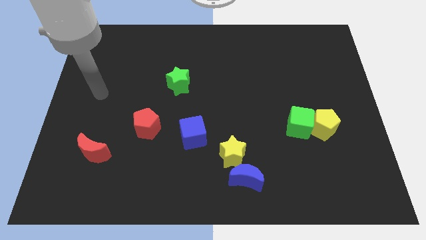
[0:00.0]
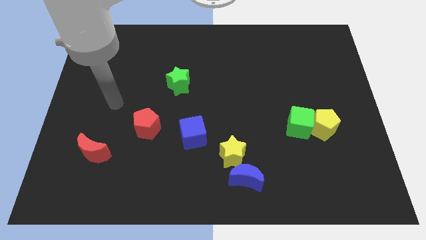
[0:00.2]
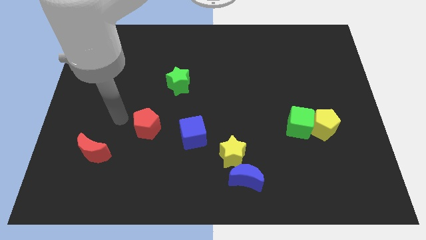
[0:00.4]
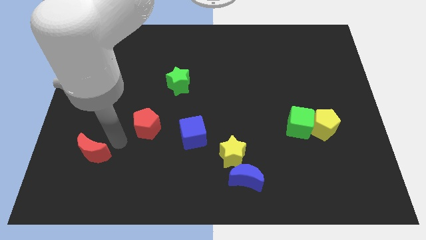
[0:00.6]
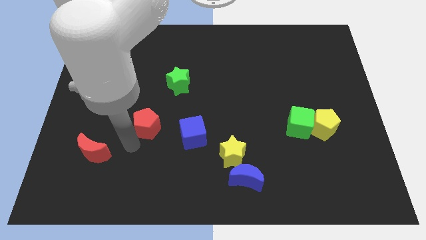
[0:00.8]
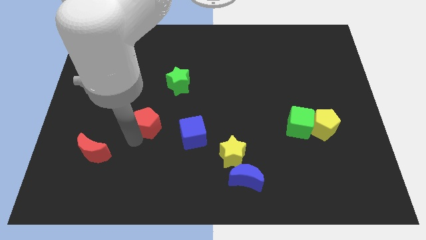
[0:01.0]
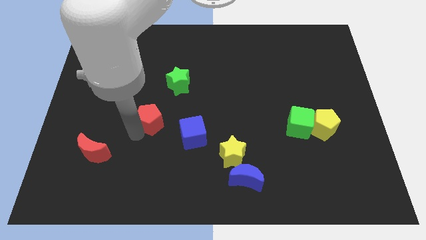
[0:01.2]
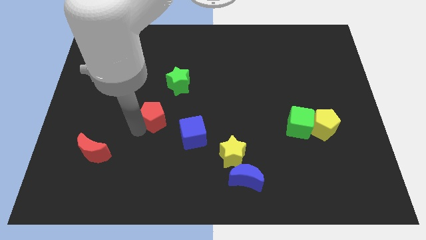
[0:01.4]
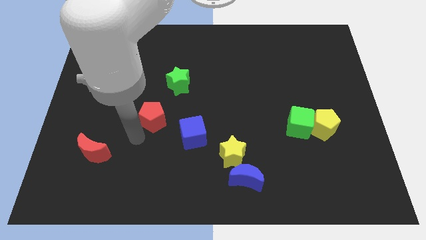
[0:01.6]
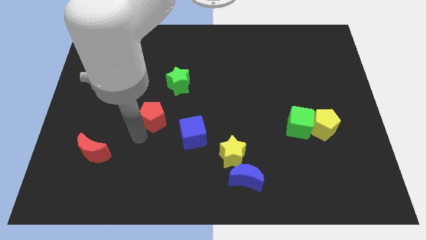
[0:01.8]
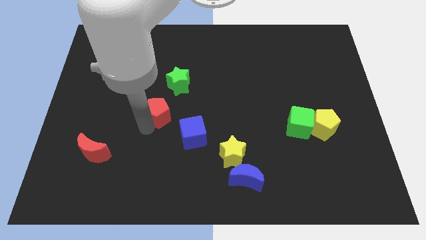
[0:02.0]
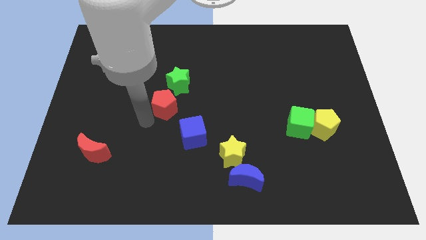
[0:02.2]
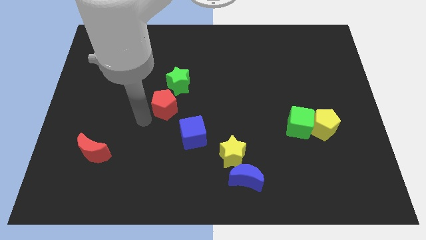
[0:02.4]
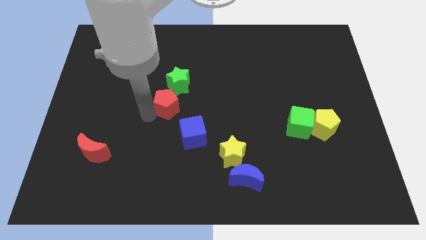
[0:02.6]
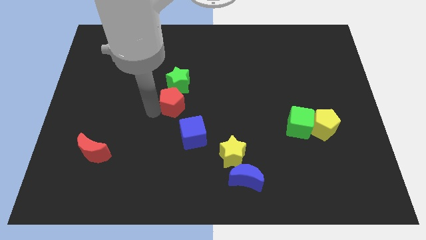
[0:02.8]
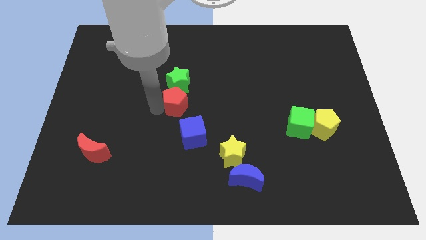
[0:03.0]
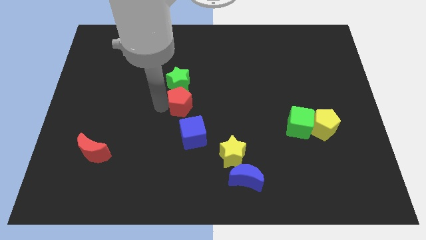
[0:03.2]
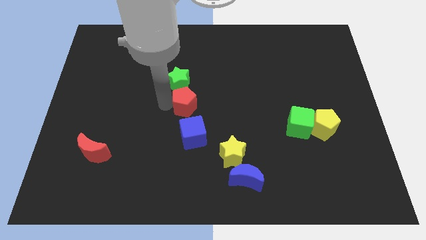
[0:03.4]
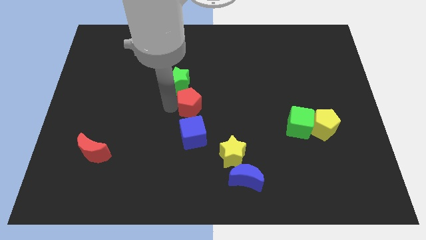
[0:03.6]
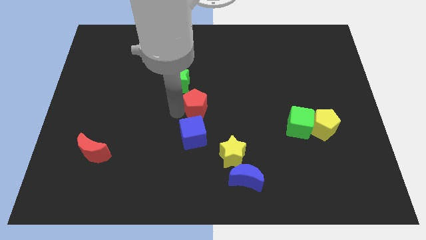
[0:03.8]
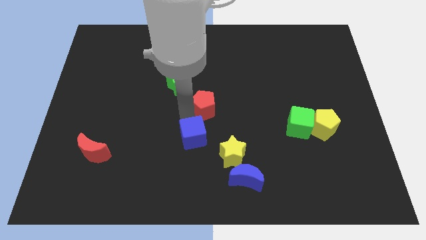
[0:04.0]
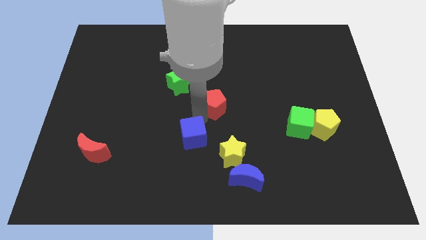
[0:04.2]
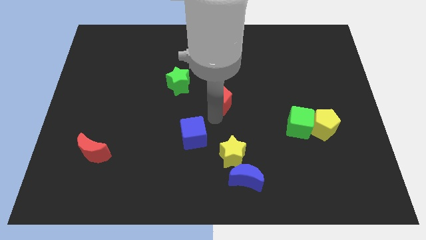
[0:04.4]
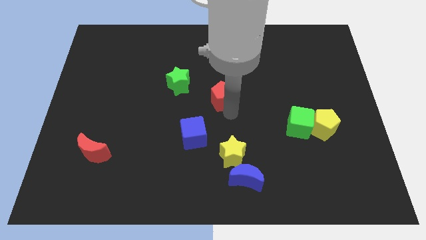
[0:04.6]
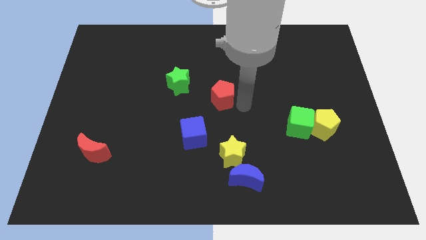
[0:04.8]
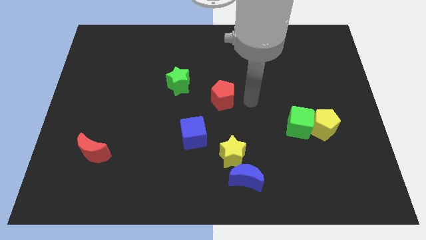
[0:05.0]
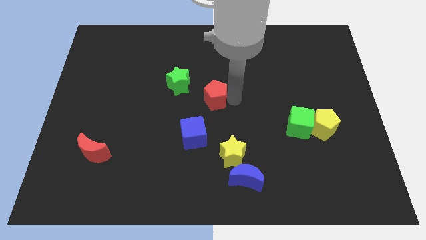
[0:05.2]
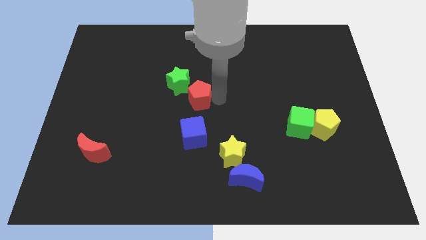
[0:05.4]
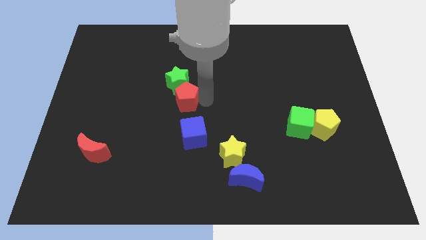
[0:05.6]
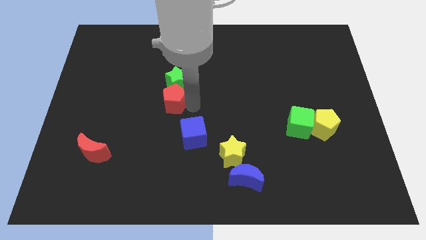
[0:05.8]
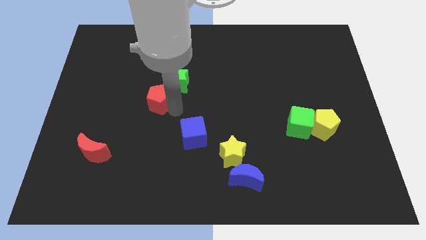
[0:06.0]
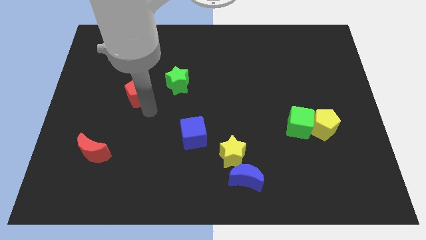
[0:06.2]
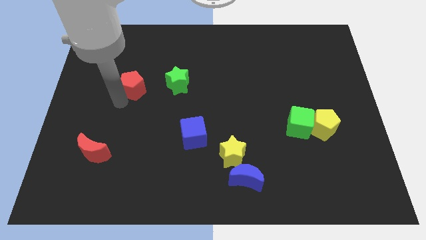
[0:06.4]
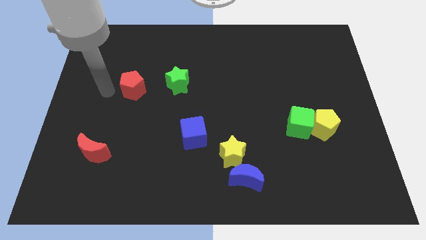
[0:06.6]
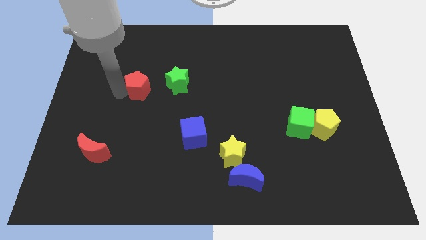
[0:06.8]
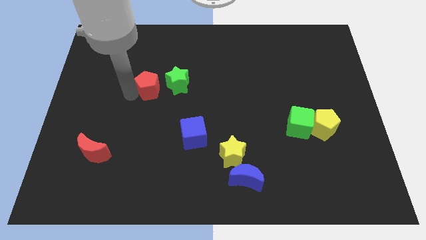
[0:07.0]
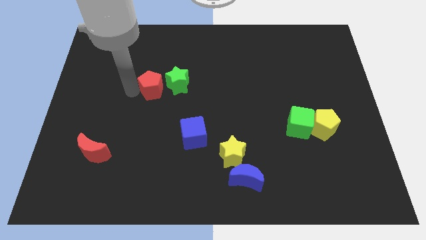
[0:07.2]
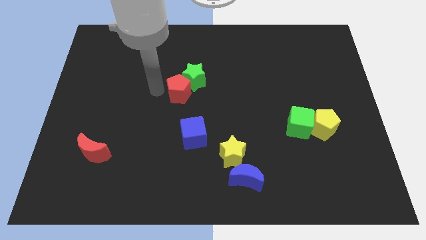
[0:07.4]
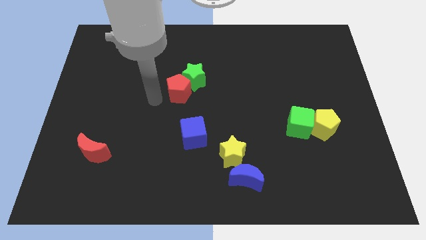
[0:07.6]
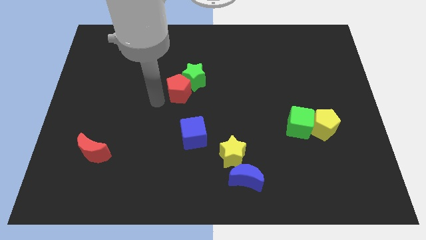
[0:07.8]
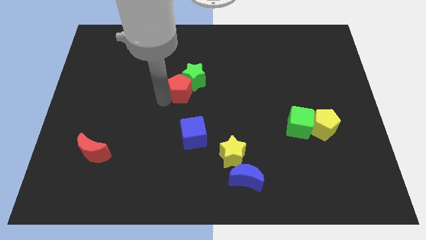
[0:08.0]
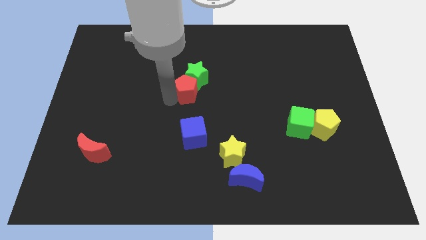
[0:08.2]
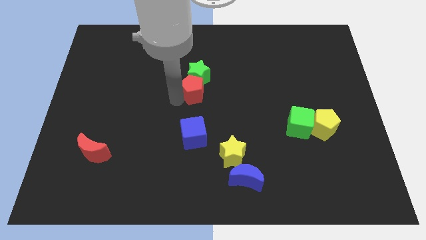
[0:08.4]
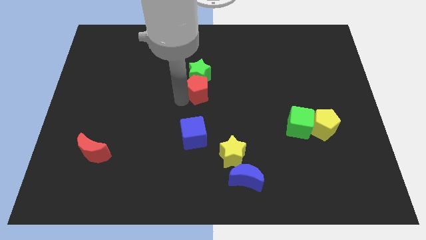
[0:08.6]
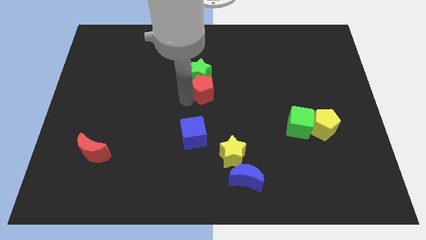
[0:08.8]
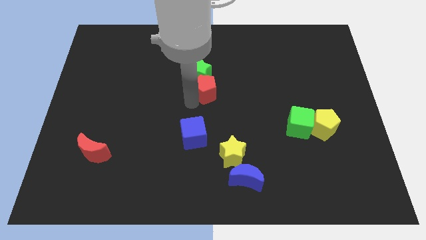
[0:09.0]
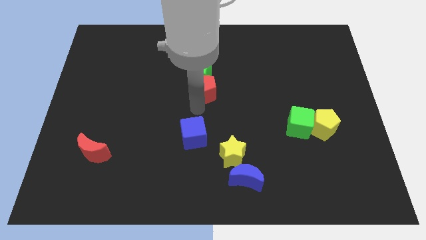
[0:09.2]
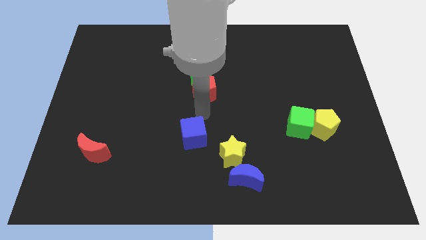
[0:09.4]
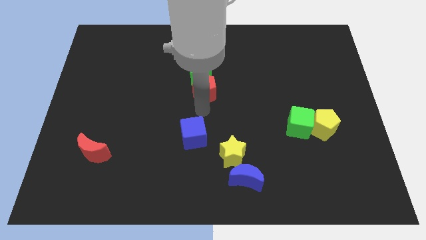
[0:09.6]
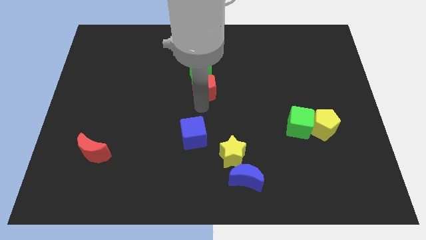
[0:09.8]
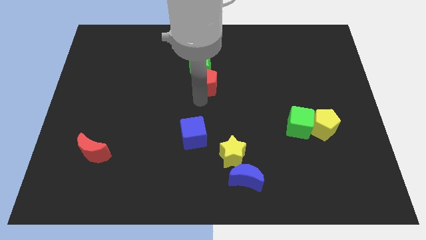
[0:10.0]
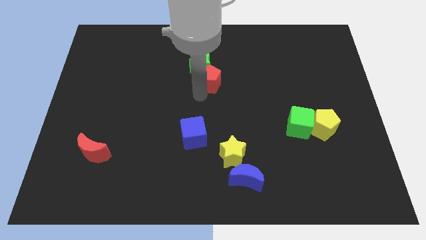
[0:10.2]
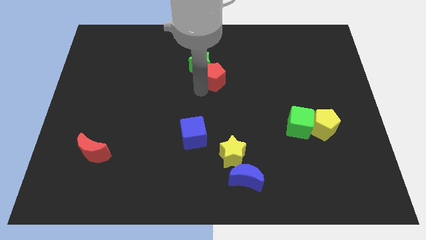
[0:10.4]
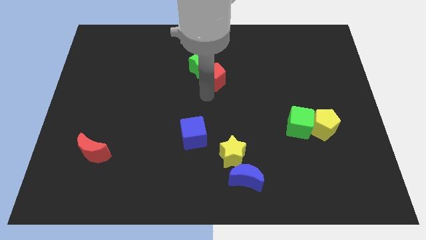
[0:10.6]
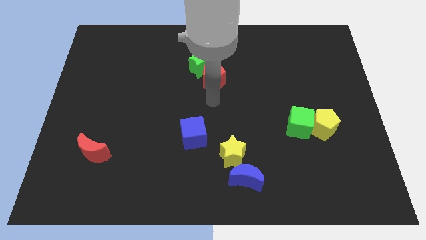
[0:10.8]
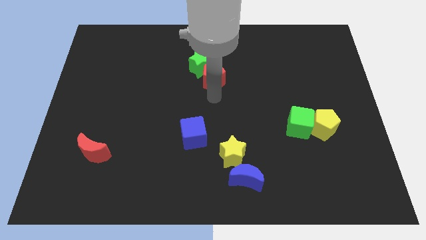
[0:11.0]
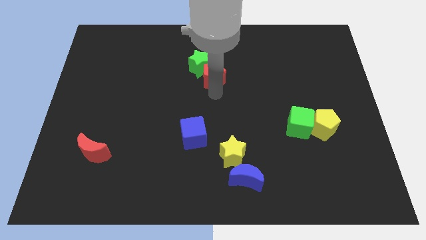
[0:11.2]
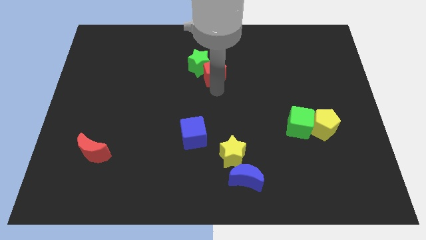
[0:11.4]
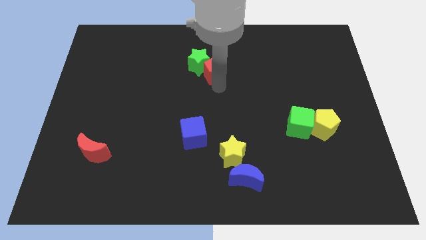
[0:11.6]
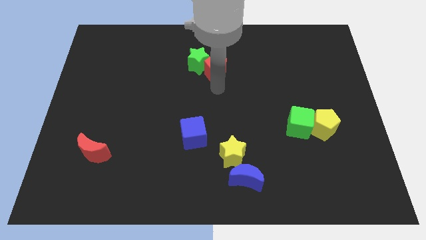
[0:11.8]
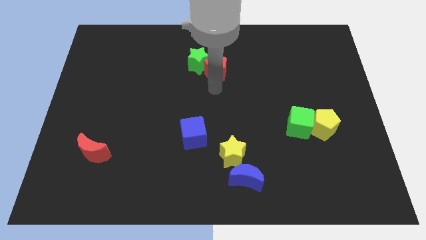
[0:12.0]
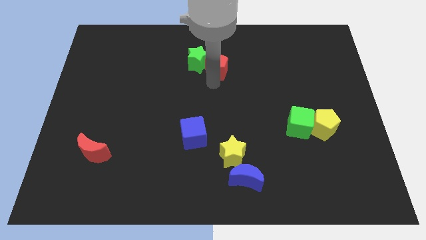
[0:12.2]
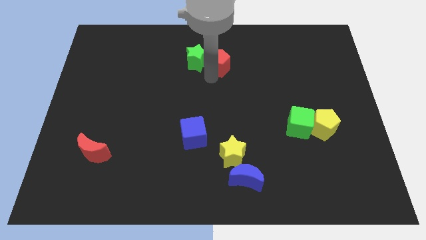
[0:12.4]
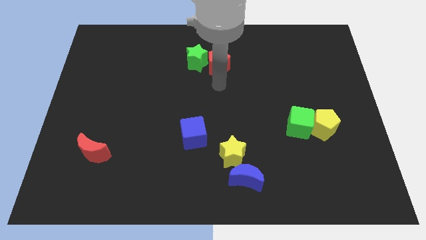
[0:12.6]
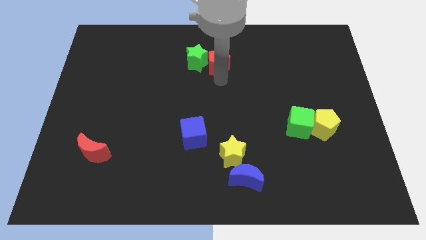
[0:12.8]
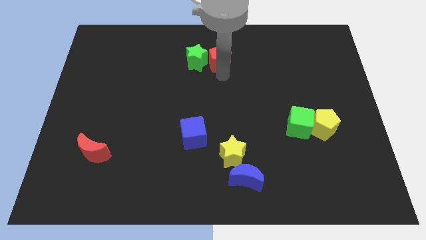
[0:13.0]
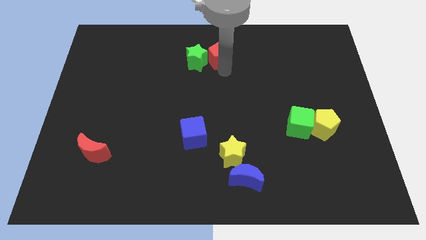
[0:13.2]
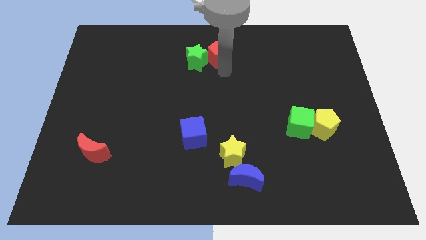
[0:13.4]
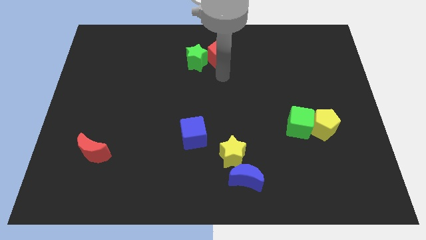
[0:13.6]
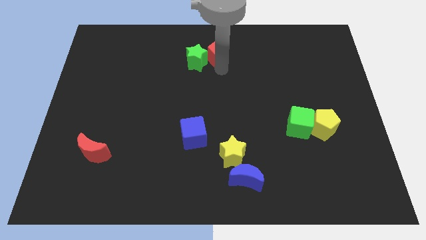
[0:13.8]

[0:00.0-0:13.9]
move the red pentagon to the top side
